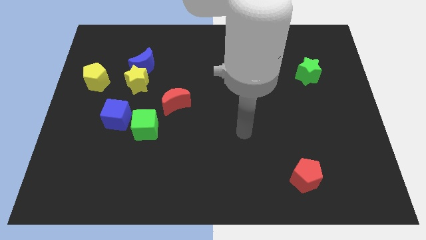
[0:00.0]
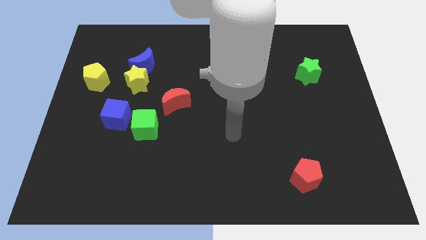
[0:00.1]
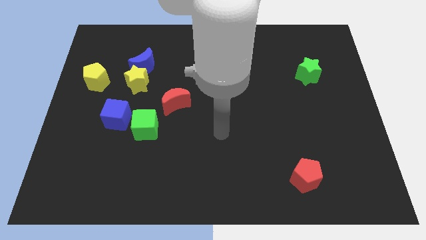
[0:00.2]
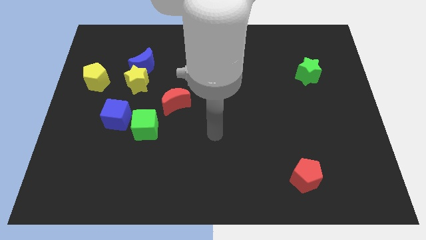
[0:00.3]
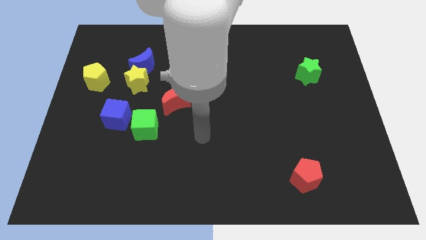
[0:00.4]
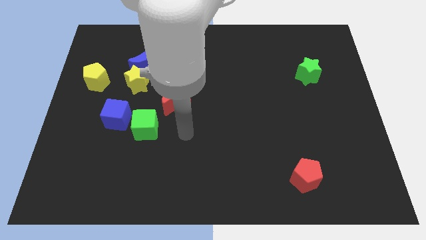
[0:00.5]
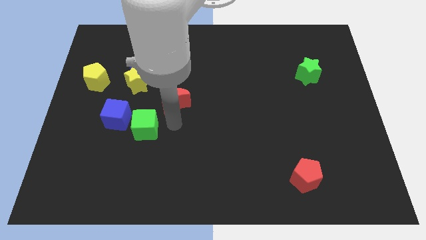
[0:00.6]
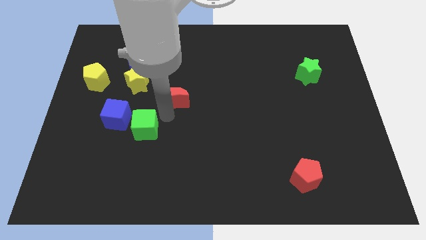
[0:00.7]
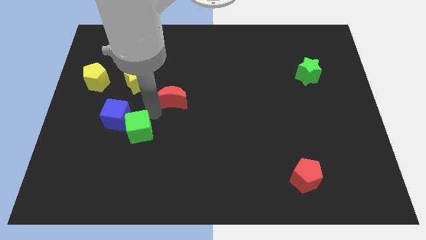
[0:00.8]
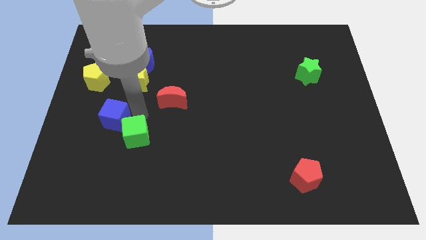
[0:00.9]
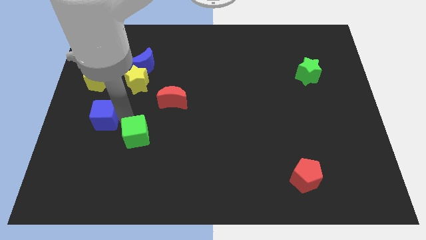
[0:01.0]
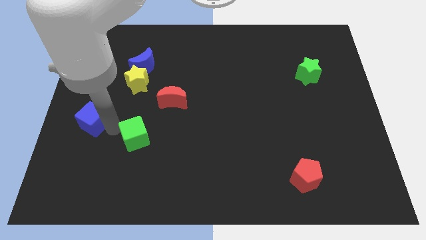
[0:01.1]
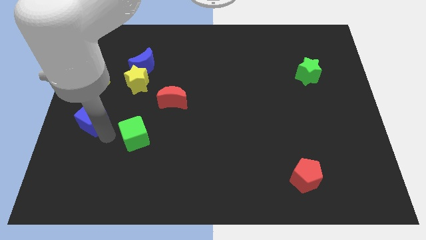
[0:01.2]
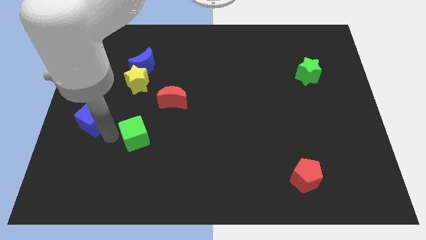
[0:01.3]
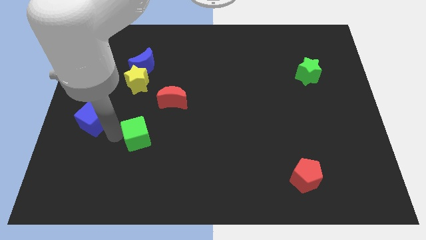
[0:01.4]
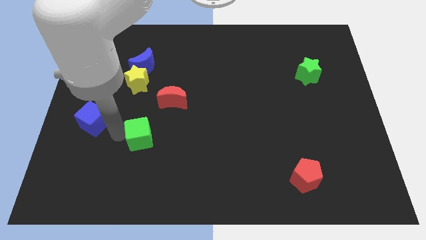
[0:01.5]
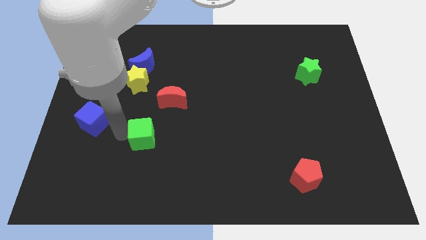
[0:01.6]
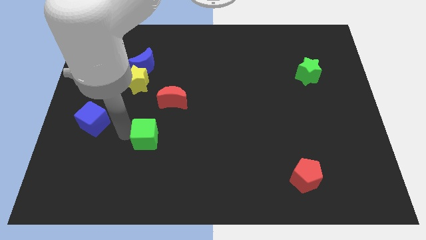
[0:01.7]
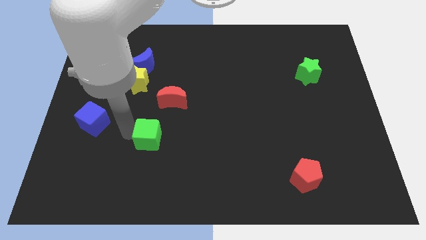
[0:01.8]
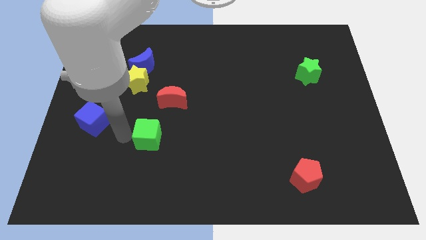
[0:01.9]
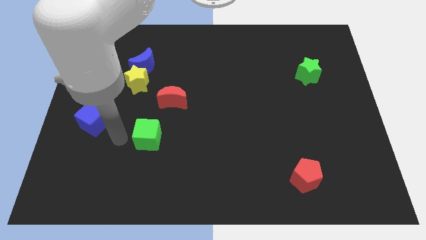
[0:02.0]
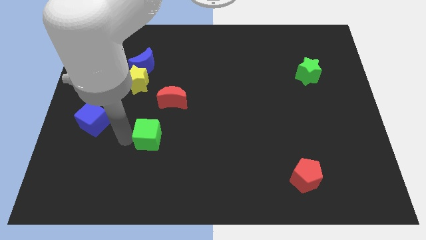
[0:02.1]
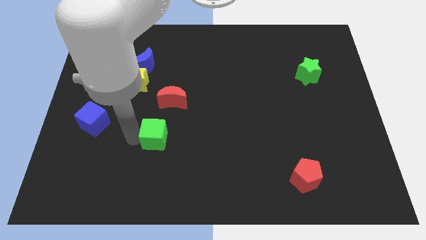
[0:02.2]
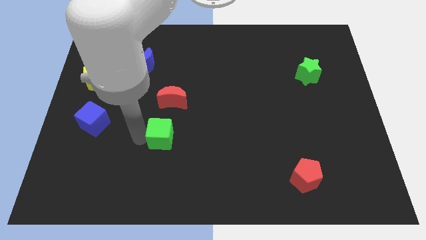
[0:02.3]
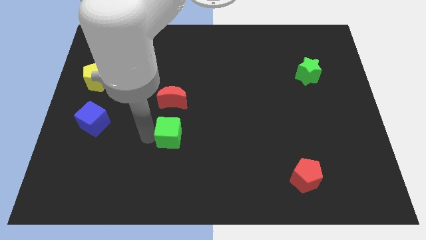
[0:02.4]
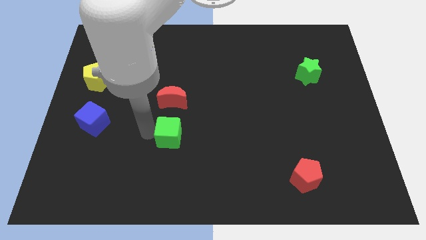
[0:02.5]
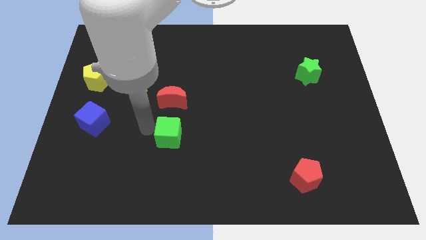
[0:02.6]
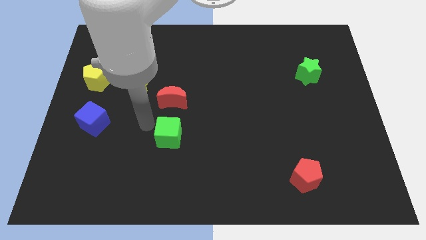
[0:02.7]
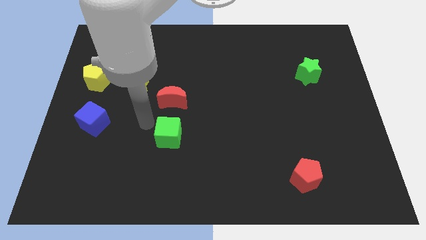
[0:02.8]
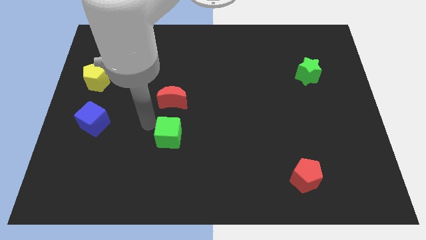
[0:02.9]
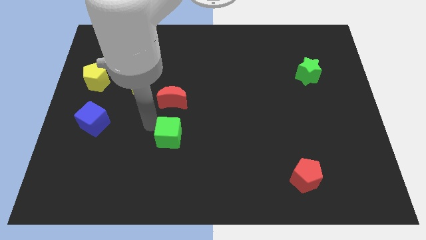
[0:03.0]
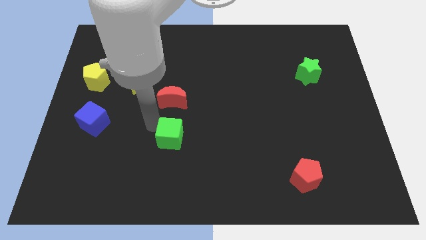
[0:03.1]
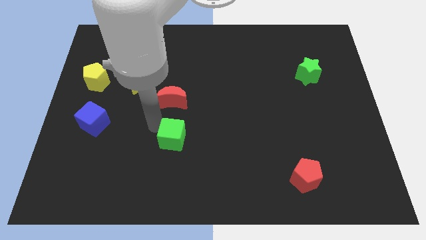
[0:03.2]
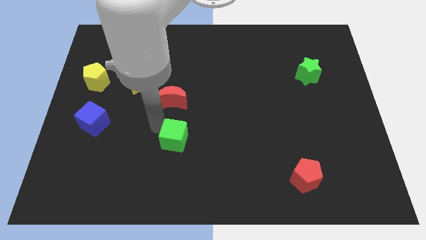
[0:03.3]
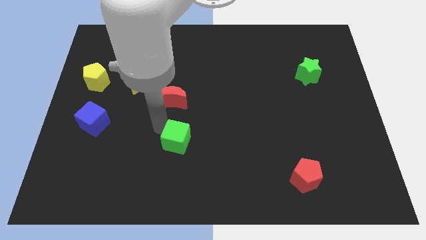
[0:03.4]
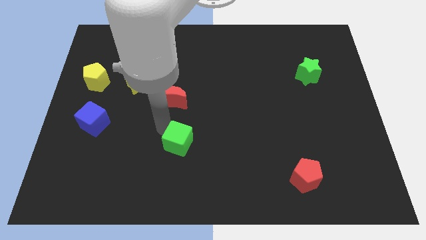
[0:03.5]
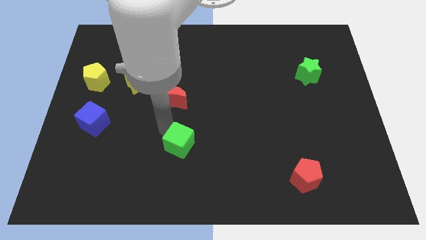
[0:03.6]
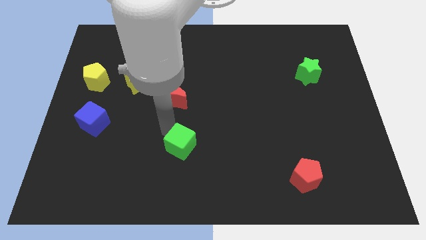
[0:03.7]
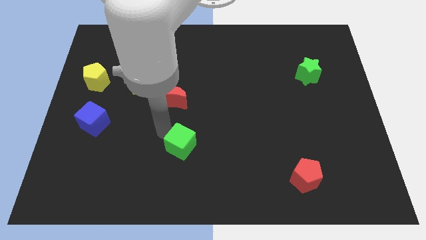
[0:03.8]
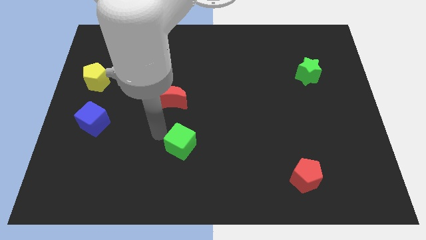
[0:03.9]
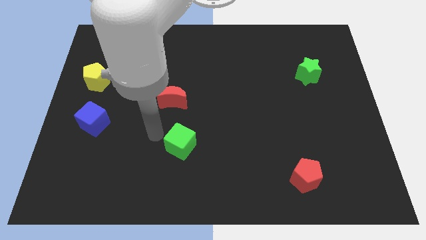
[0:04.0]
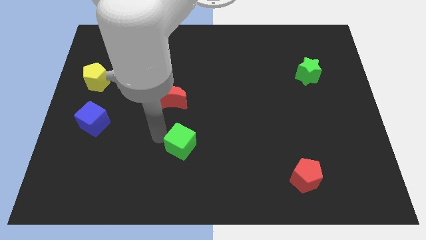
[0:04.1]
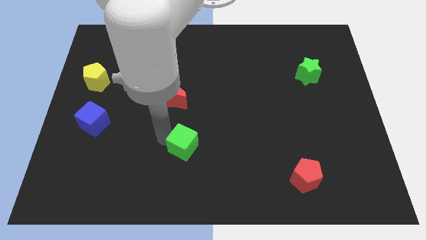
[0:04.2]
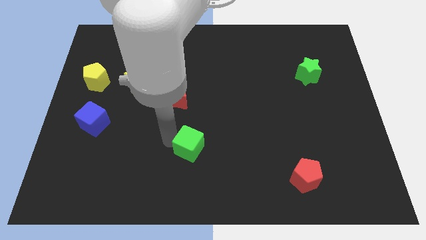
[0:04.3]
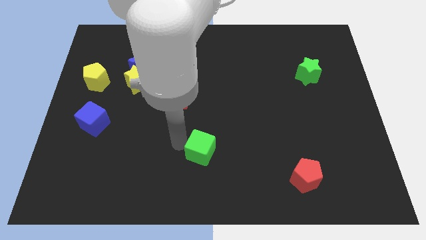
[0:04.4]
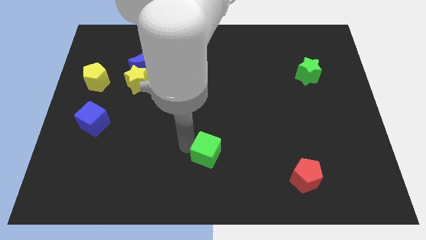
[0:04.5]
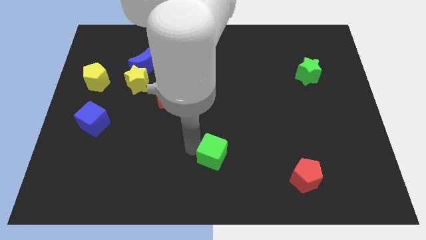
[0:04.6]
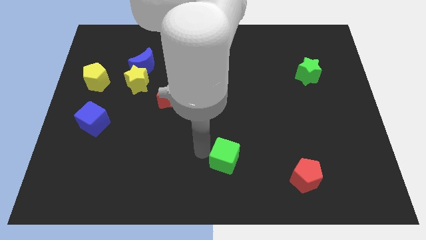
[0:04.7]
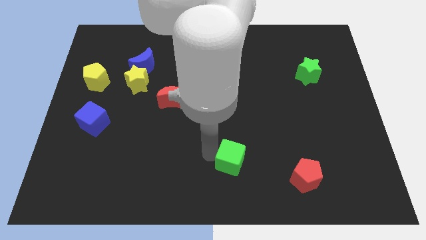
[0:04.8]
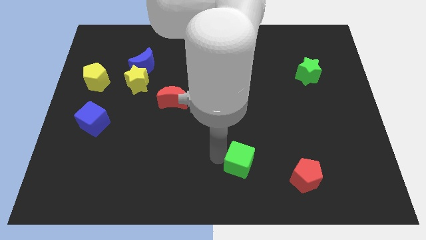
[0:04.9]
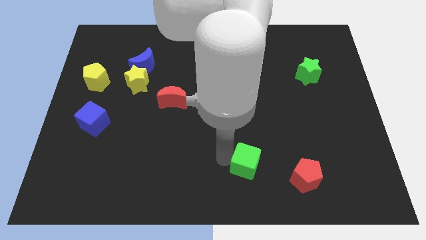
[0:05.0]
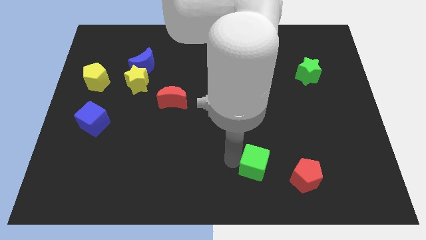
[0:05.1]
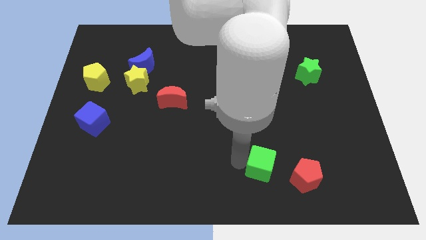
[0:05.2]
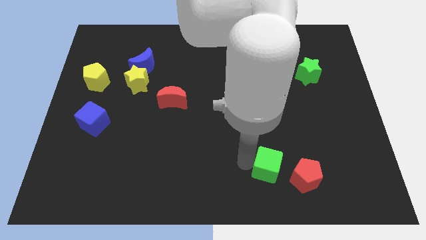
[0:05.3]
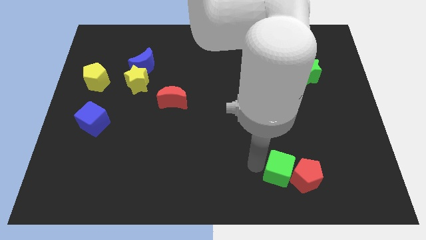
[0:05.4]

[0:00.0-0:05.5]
push the green cube towards the red pentagon

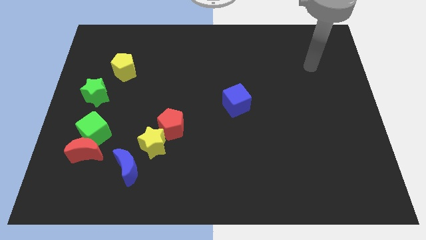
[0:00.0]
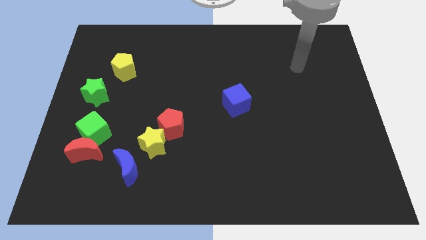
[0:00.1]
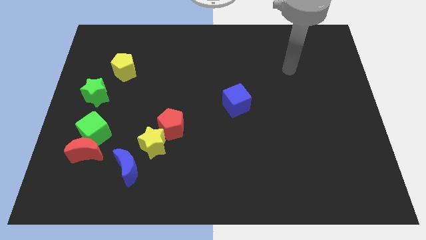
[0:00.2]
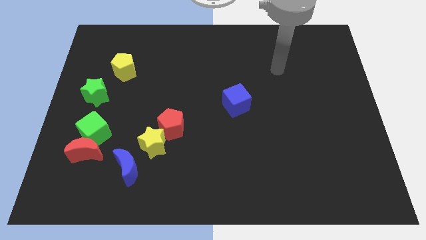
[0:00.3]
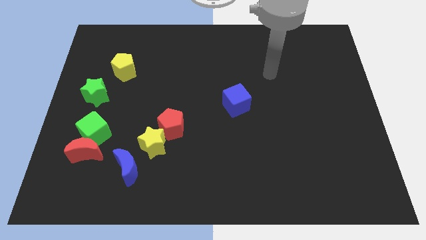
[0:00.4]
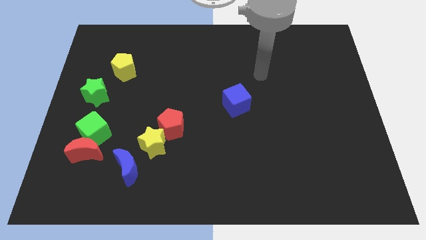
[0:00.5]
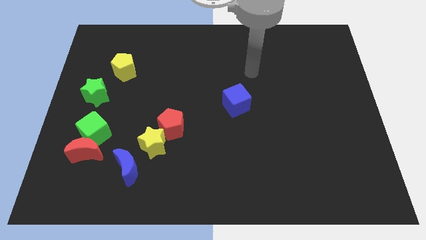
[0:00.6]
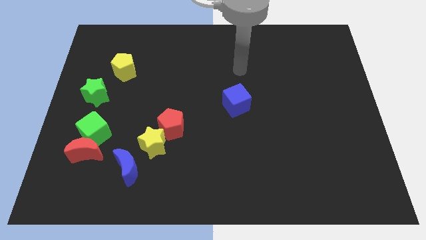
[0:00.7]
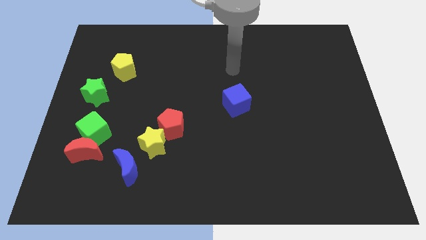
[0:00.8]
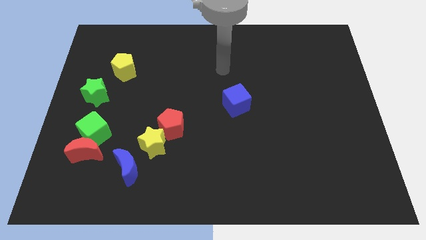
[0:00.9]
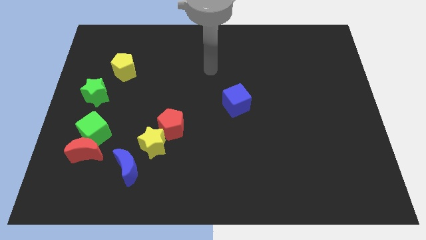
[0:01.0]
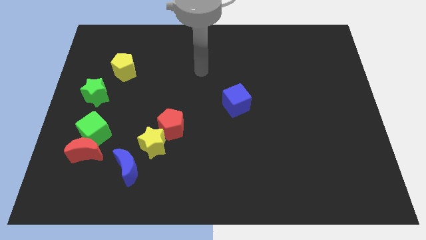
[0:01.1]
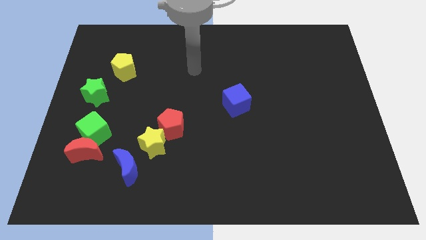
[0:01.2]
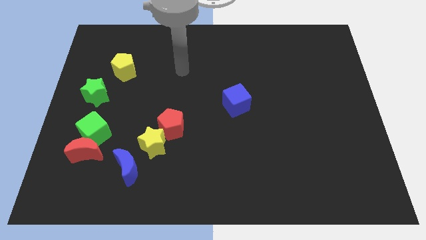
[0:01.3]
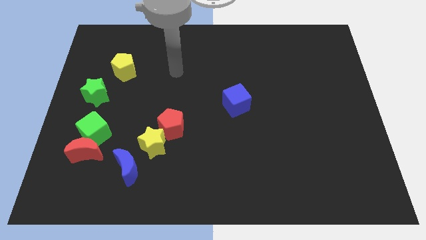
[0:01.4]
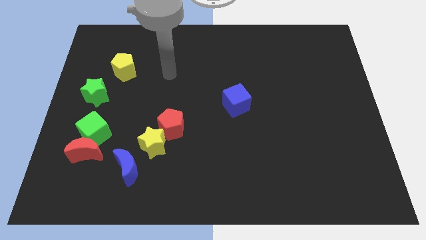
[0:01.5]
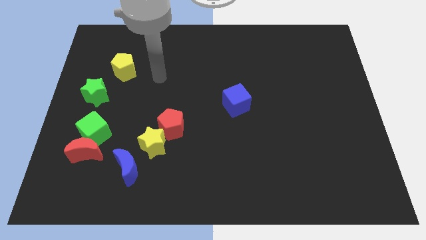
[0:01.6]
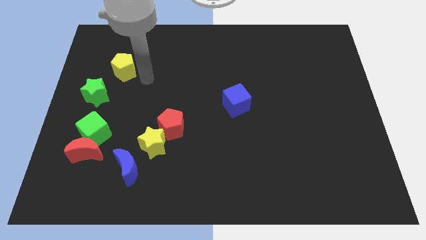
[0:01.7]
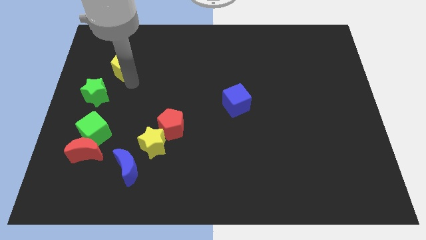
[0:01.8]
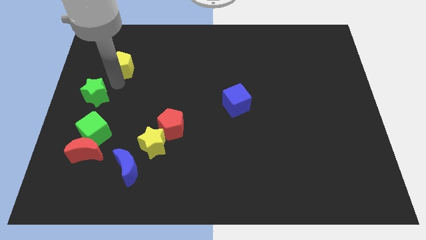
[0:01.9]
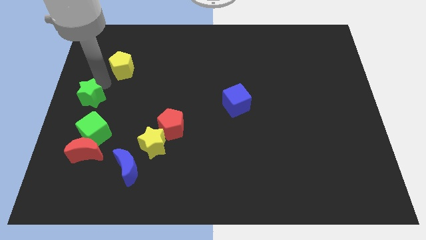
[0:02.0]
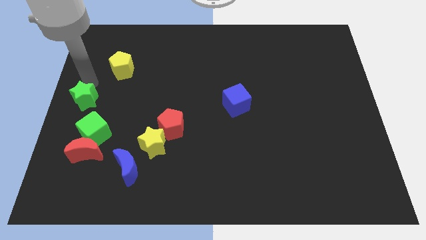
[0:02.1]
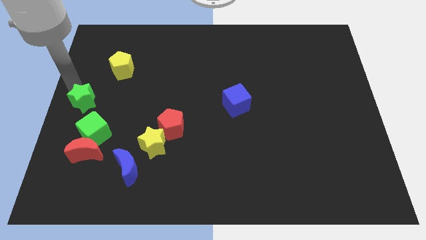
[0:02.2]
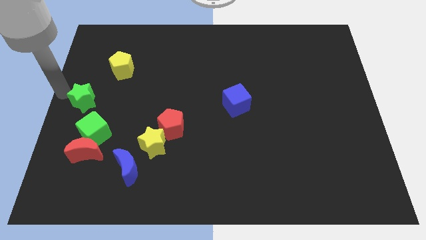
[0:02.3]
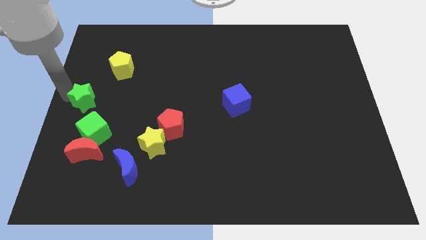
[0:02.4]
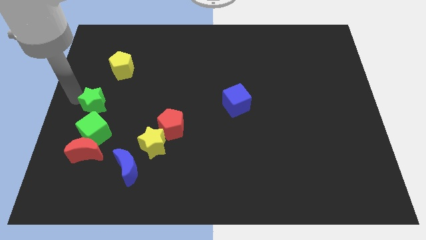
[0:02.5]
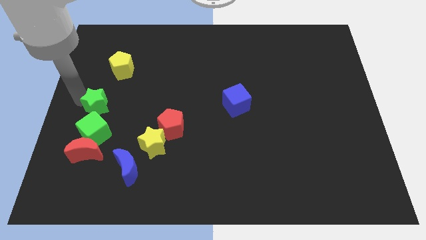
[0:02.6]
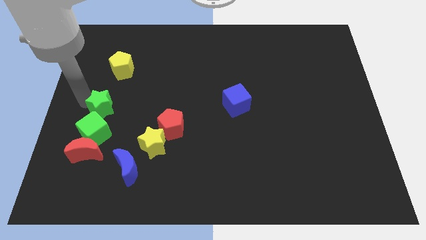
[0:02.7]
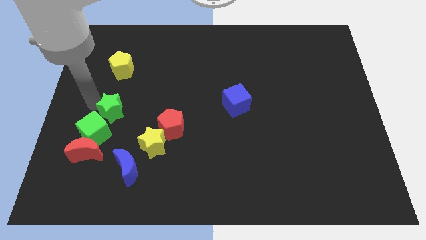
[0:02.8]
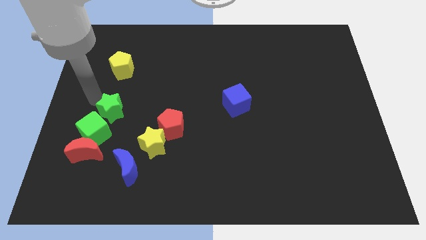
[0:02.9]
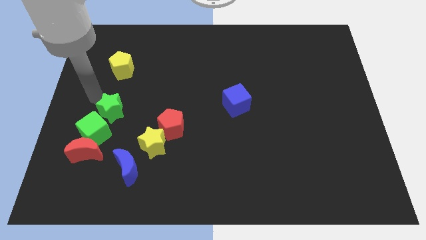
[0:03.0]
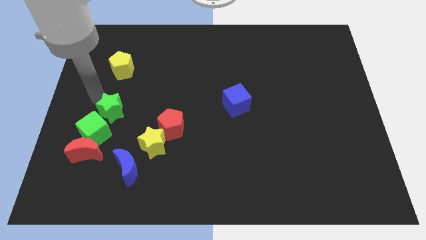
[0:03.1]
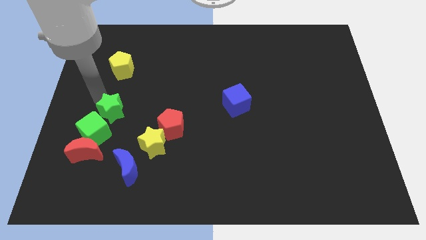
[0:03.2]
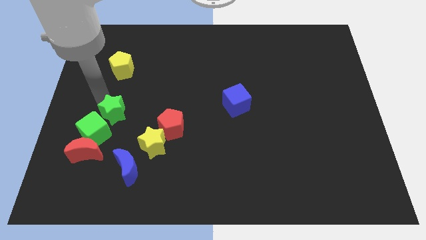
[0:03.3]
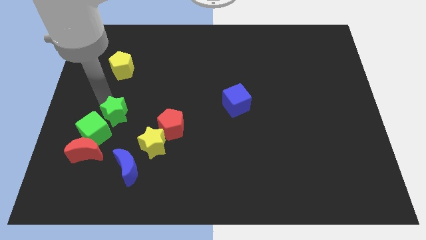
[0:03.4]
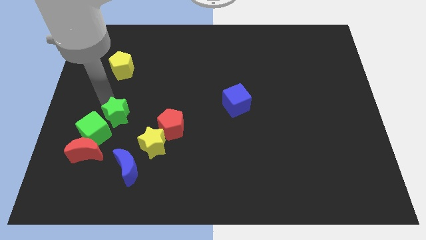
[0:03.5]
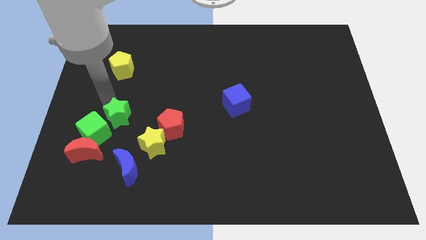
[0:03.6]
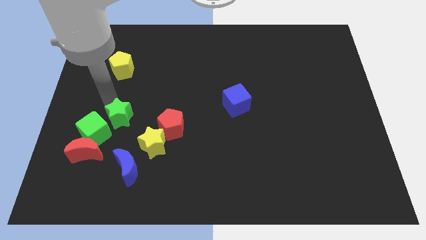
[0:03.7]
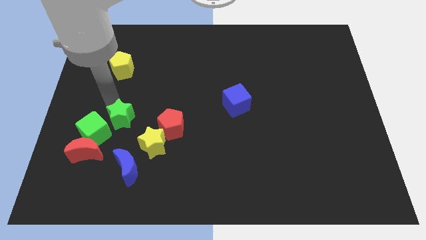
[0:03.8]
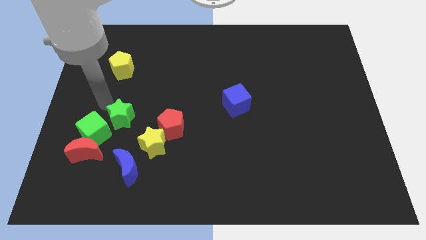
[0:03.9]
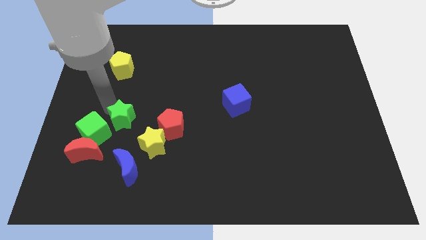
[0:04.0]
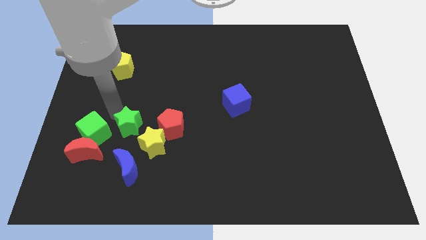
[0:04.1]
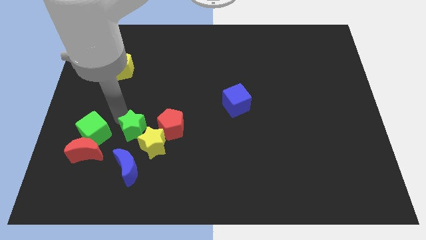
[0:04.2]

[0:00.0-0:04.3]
move the green star towards the yellow star
